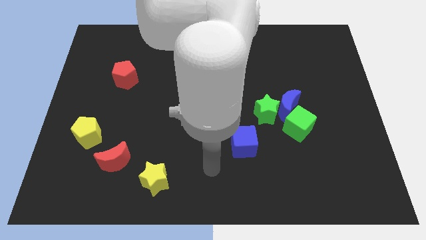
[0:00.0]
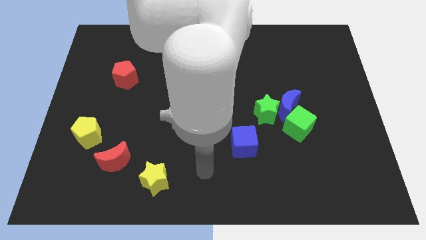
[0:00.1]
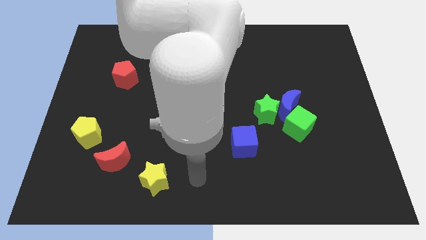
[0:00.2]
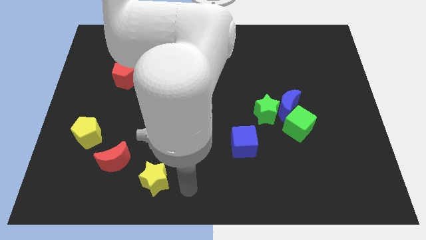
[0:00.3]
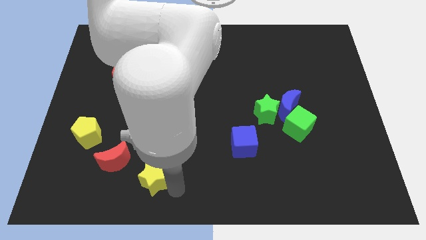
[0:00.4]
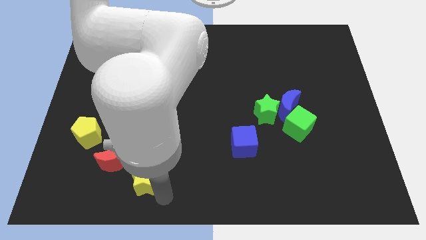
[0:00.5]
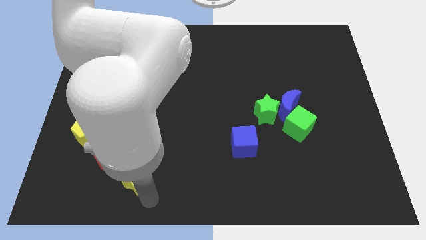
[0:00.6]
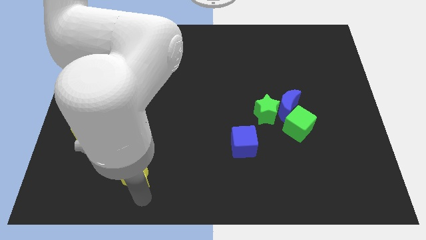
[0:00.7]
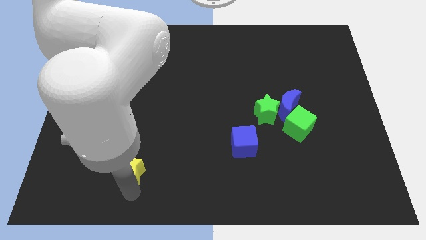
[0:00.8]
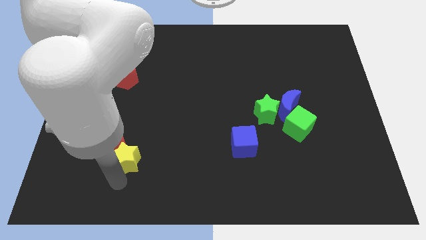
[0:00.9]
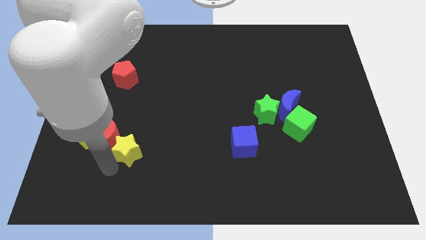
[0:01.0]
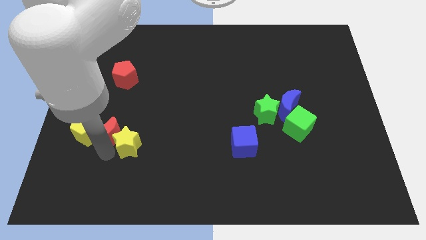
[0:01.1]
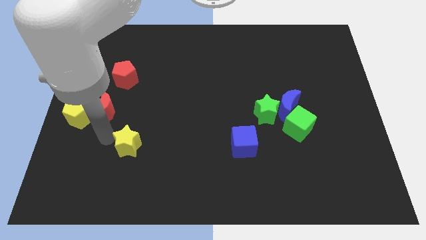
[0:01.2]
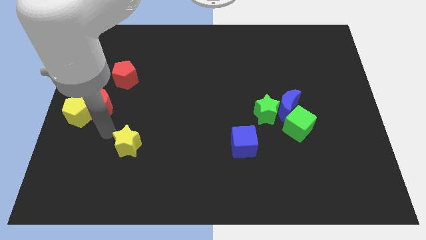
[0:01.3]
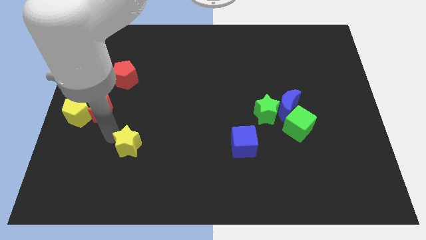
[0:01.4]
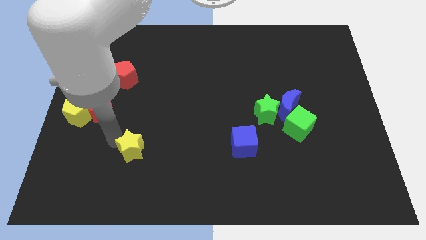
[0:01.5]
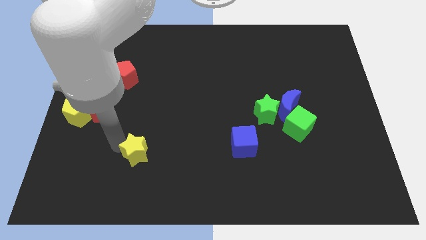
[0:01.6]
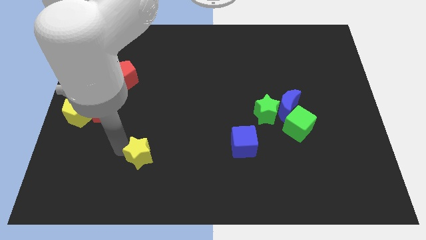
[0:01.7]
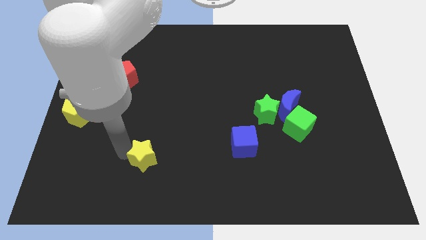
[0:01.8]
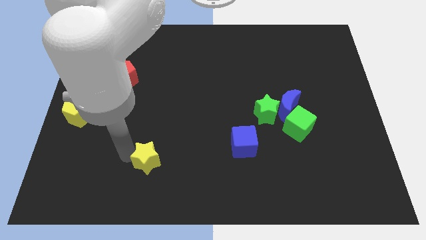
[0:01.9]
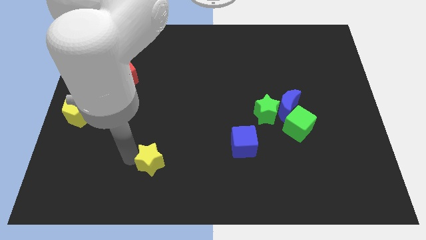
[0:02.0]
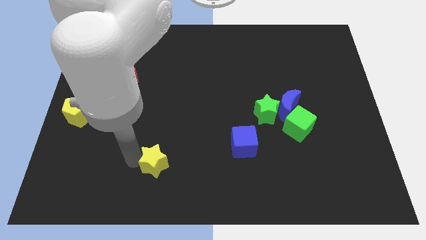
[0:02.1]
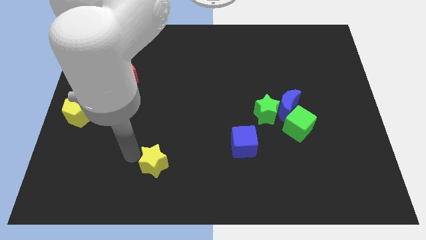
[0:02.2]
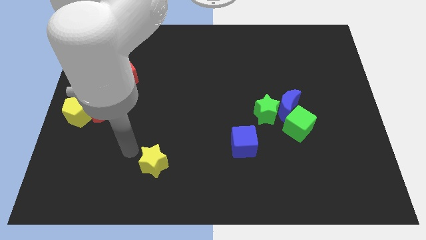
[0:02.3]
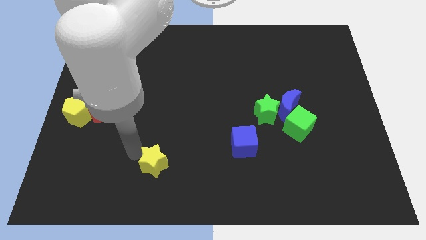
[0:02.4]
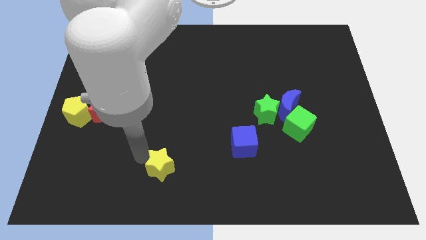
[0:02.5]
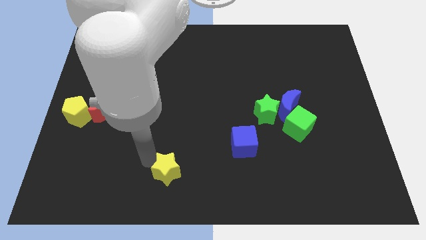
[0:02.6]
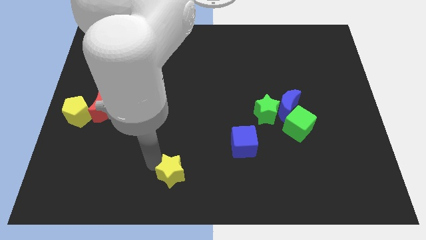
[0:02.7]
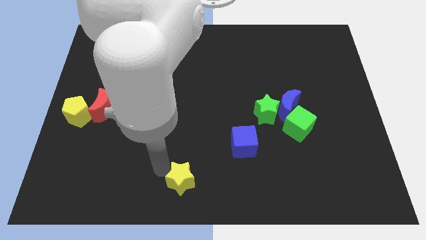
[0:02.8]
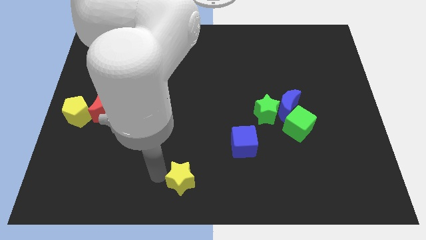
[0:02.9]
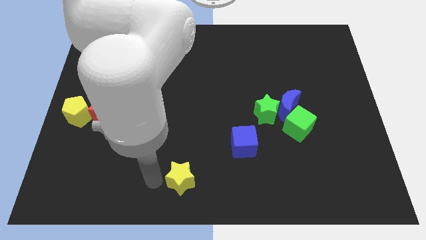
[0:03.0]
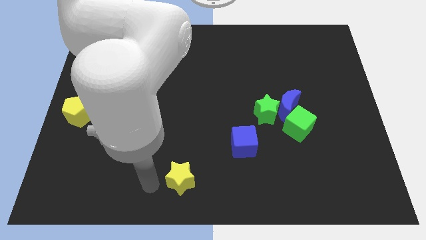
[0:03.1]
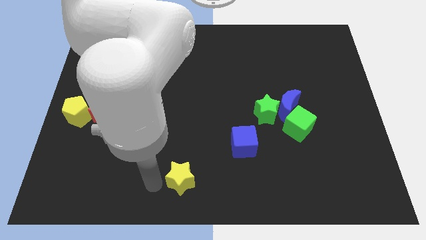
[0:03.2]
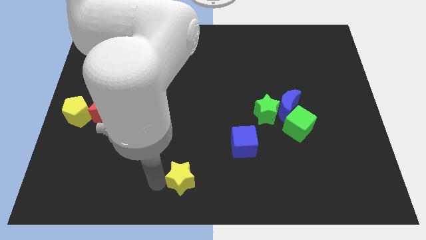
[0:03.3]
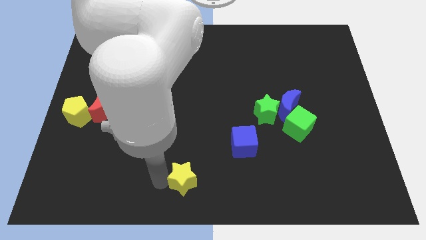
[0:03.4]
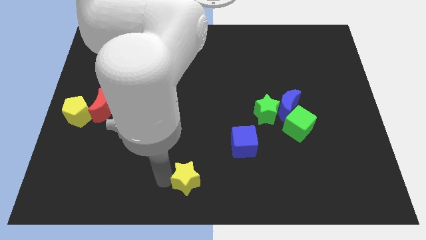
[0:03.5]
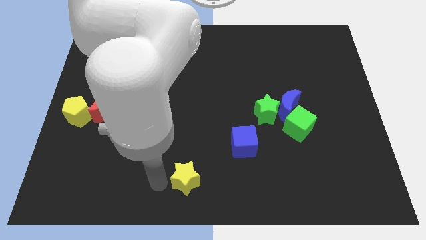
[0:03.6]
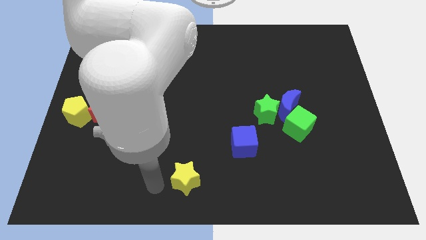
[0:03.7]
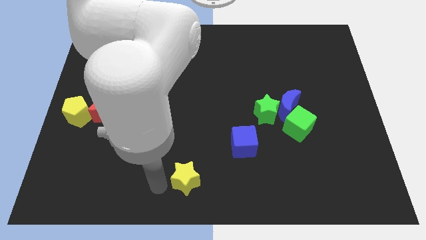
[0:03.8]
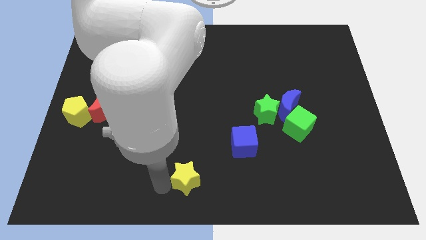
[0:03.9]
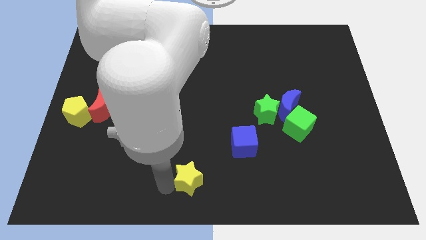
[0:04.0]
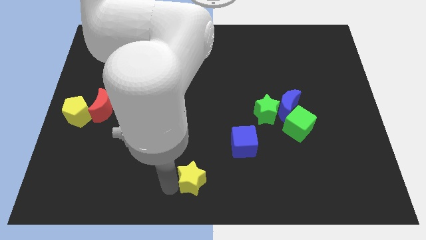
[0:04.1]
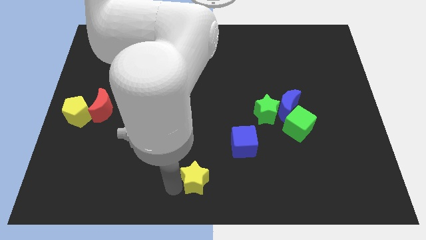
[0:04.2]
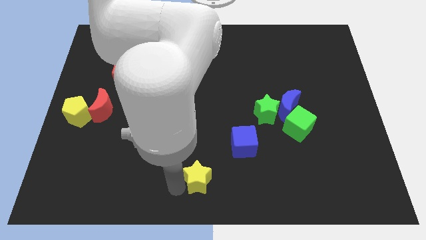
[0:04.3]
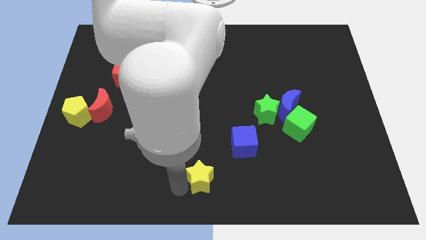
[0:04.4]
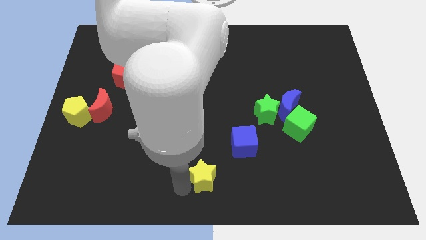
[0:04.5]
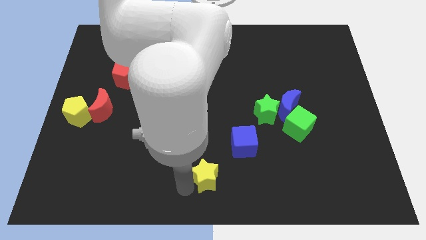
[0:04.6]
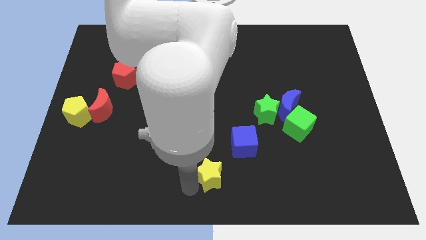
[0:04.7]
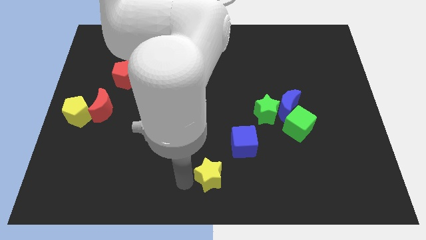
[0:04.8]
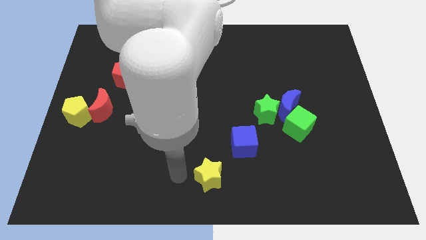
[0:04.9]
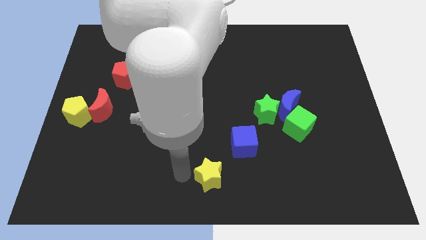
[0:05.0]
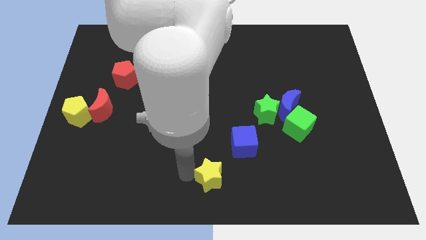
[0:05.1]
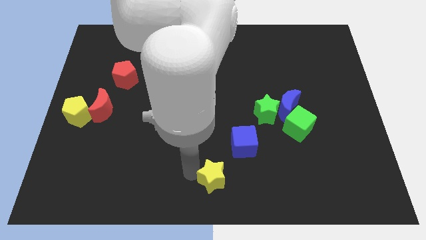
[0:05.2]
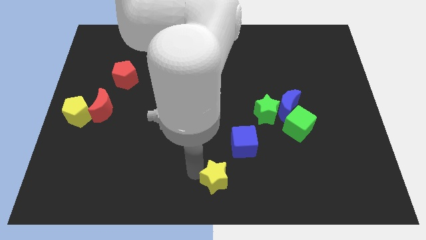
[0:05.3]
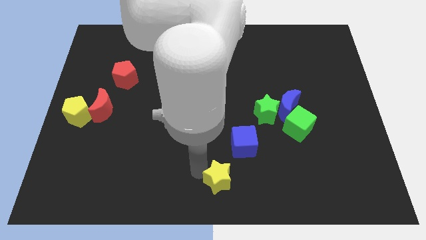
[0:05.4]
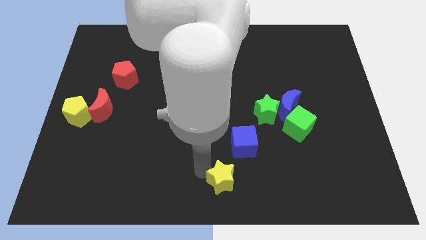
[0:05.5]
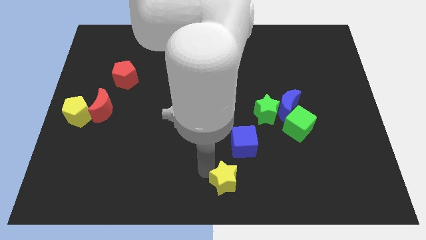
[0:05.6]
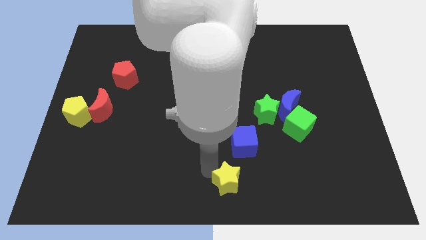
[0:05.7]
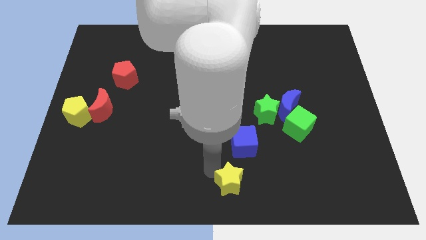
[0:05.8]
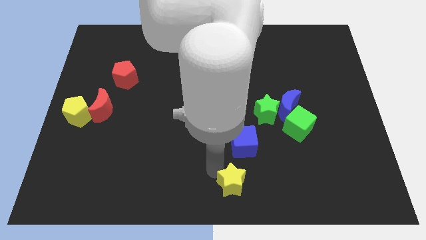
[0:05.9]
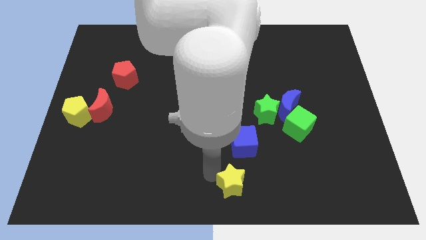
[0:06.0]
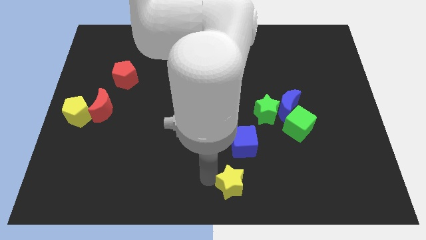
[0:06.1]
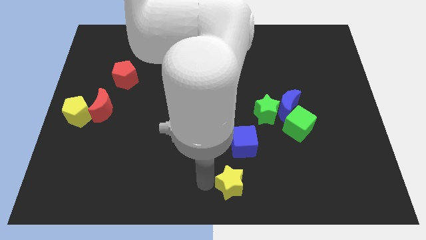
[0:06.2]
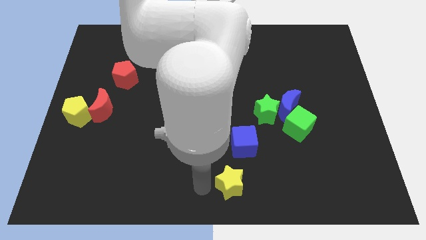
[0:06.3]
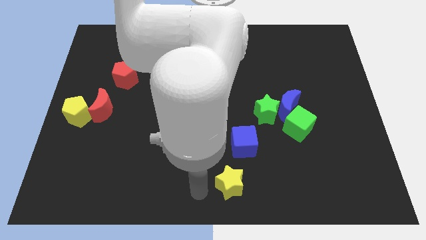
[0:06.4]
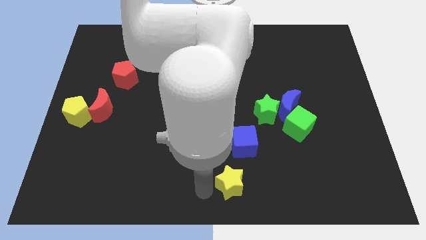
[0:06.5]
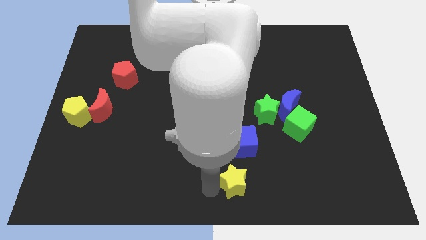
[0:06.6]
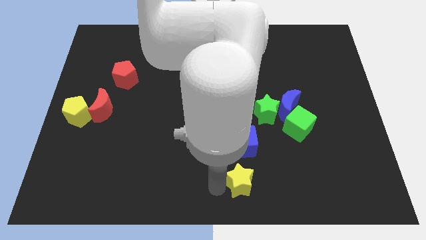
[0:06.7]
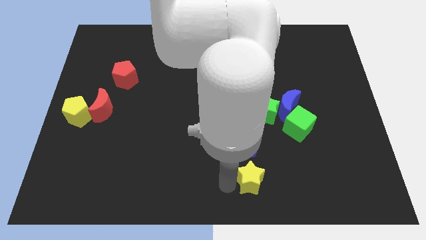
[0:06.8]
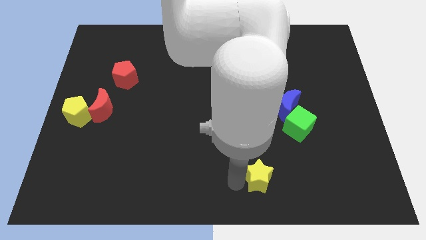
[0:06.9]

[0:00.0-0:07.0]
move the yellow star to the right

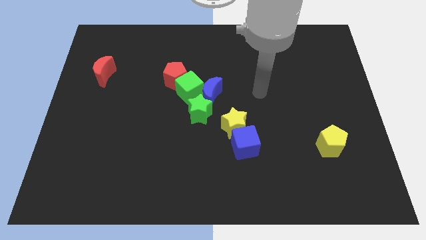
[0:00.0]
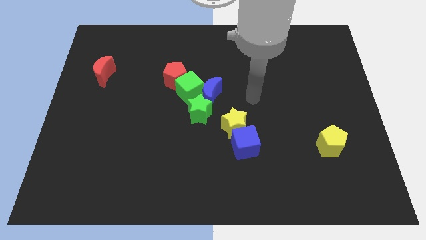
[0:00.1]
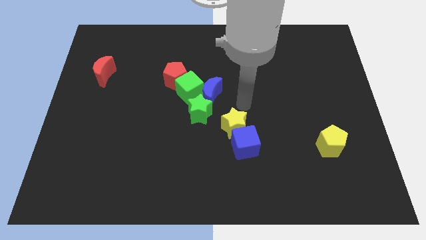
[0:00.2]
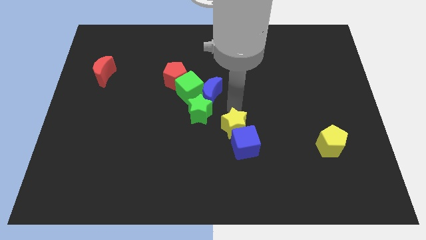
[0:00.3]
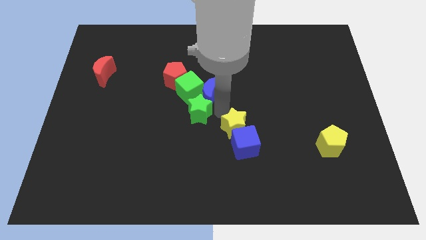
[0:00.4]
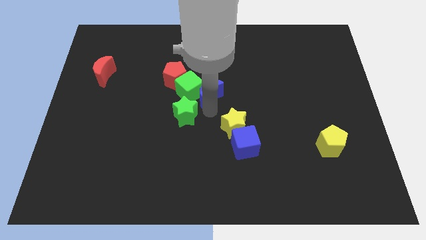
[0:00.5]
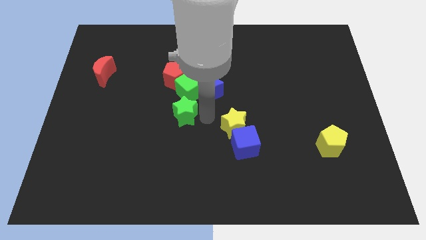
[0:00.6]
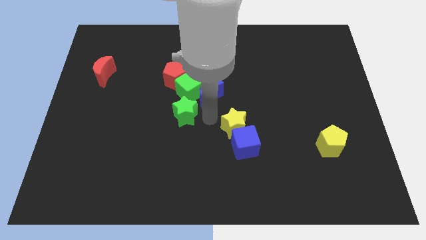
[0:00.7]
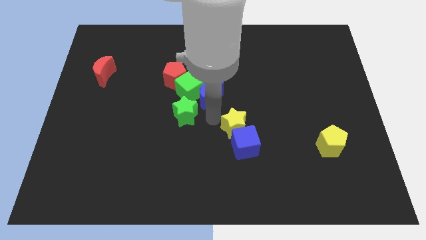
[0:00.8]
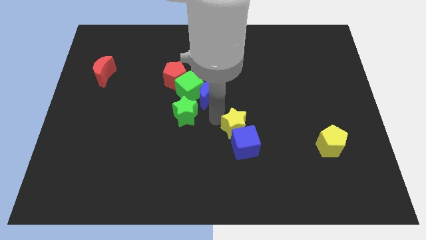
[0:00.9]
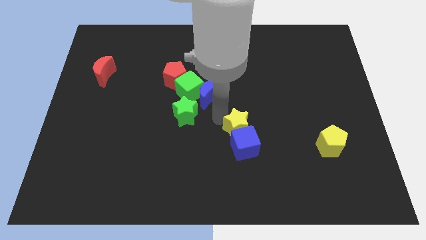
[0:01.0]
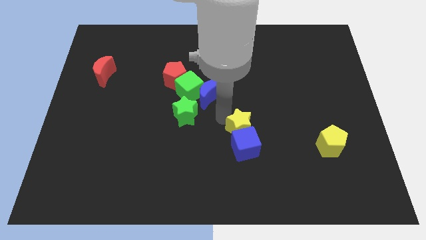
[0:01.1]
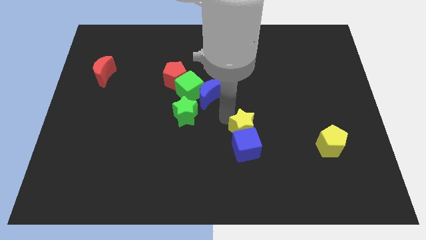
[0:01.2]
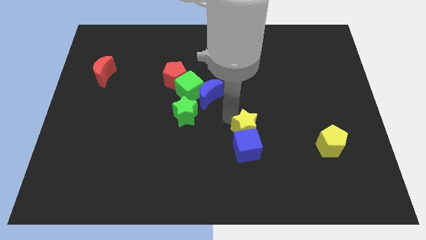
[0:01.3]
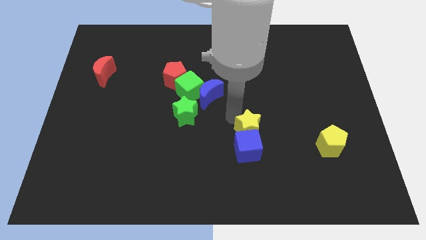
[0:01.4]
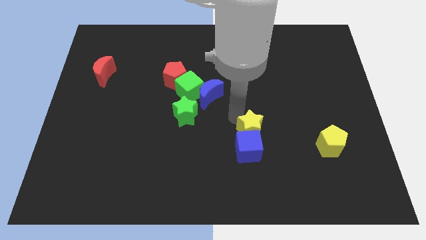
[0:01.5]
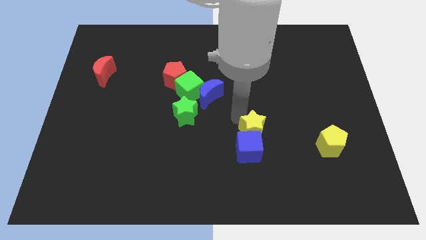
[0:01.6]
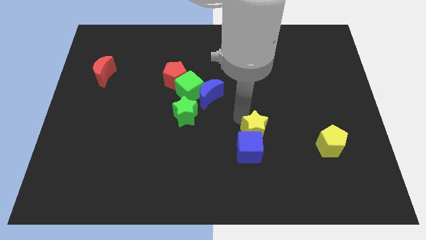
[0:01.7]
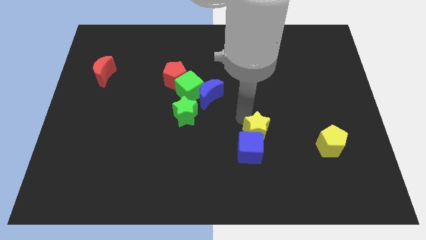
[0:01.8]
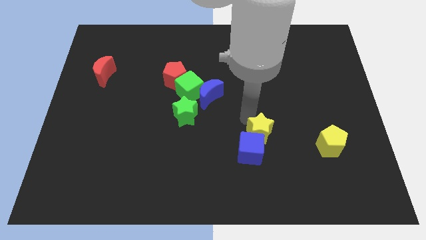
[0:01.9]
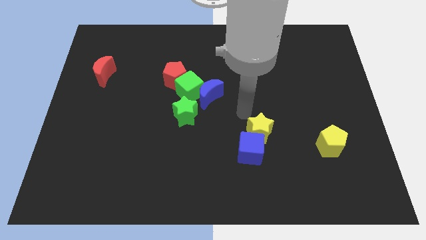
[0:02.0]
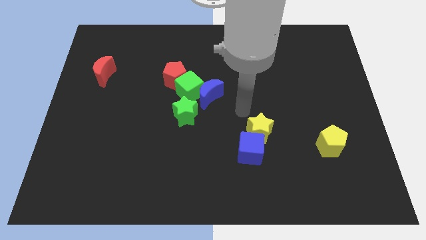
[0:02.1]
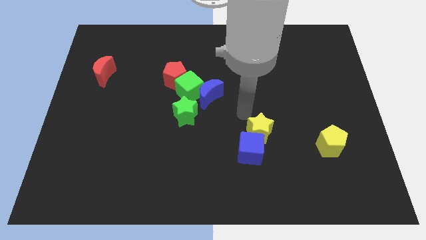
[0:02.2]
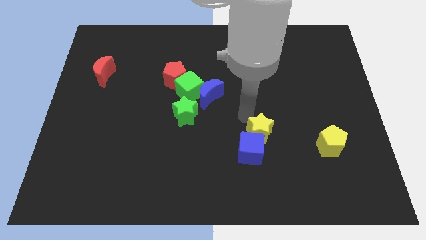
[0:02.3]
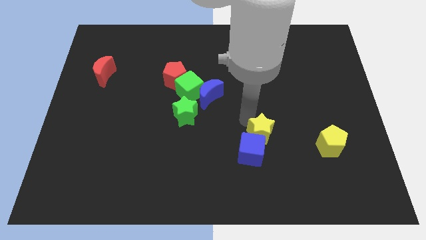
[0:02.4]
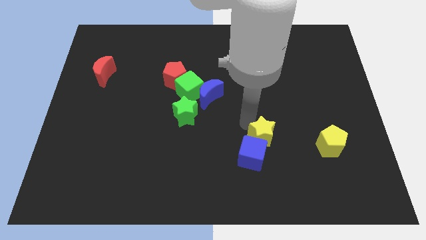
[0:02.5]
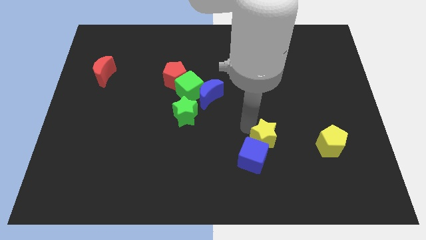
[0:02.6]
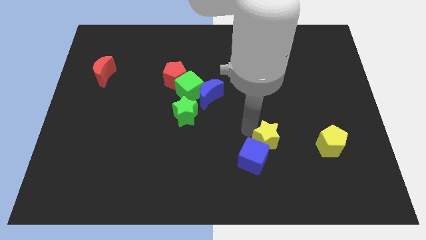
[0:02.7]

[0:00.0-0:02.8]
slightly move the yellow star downwards and to the right diagonally
